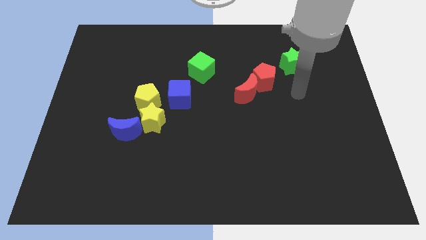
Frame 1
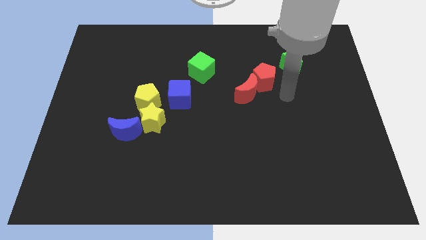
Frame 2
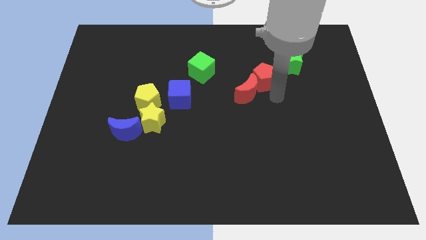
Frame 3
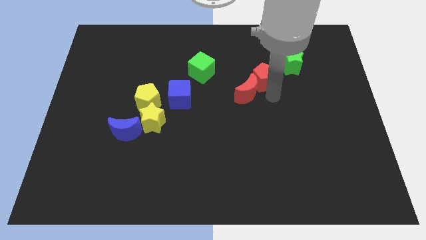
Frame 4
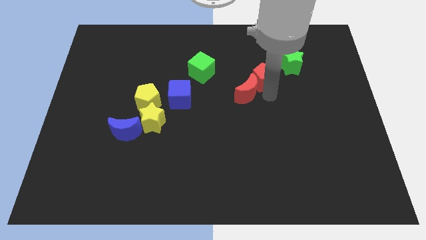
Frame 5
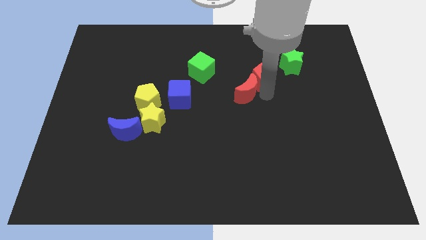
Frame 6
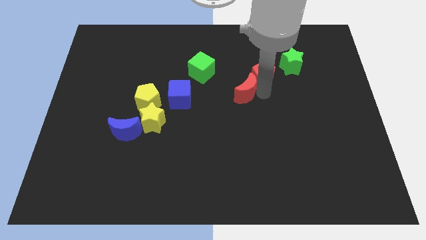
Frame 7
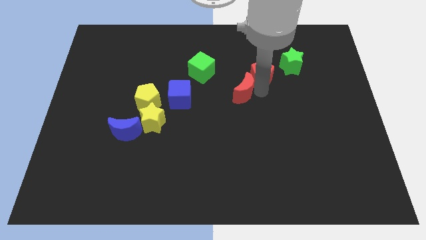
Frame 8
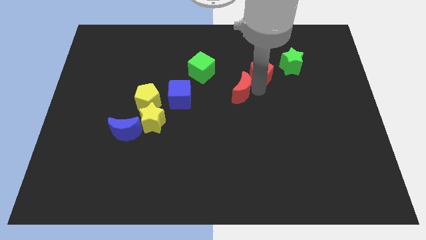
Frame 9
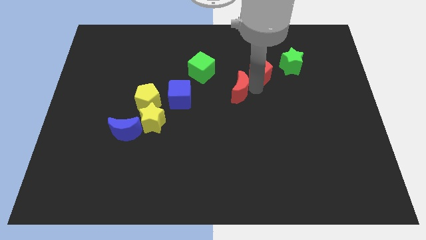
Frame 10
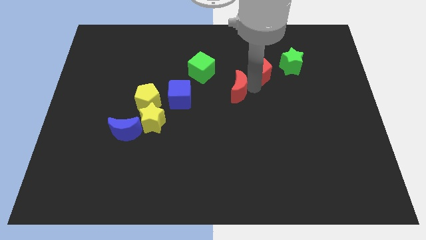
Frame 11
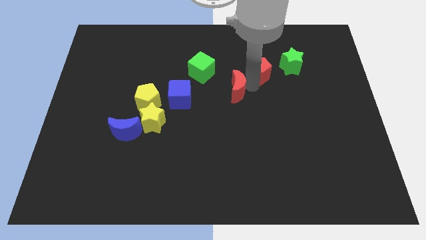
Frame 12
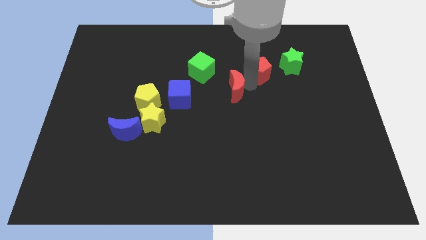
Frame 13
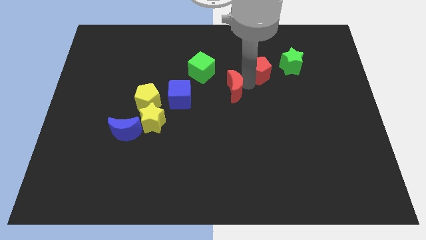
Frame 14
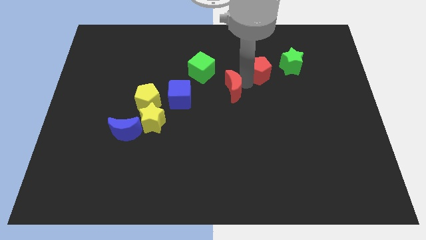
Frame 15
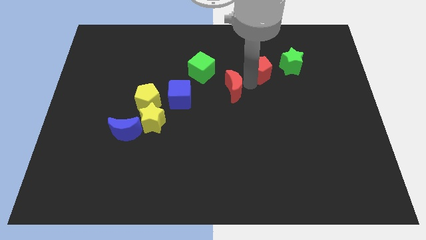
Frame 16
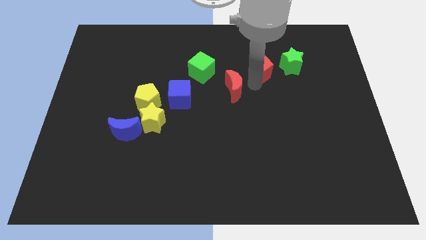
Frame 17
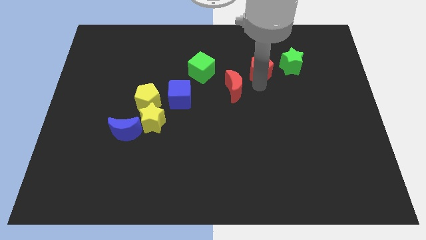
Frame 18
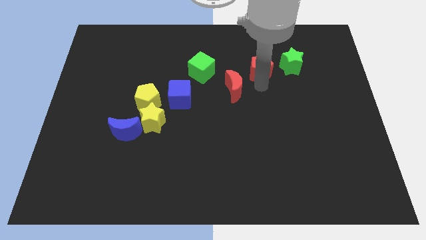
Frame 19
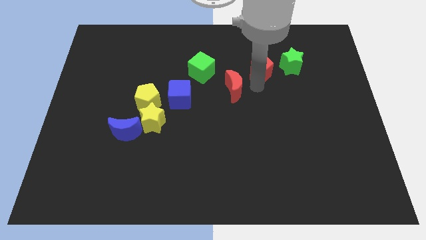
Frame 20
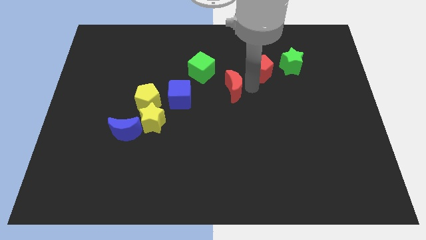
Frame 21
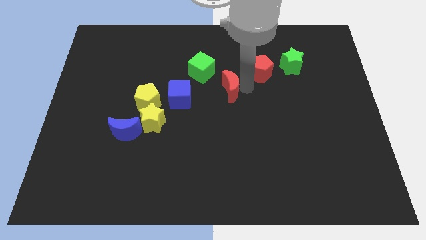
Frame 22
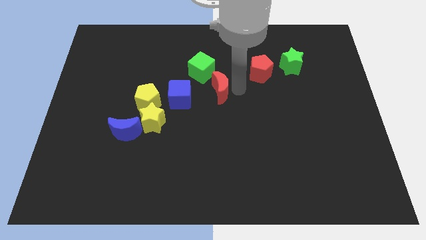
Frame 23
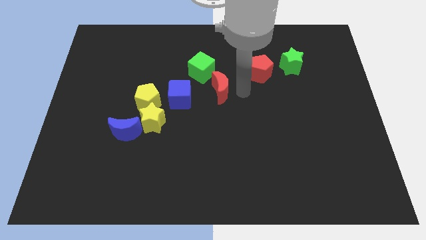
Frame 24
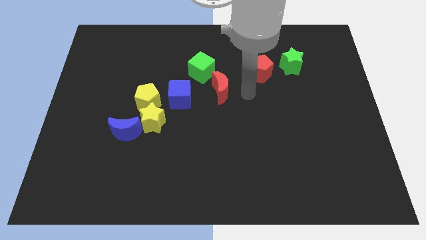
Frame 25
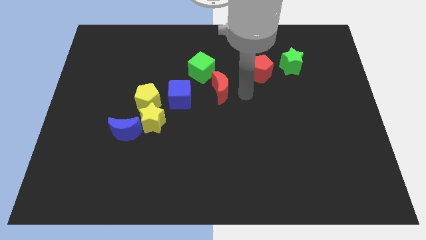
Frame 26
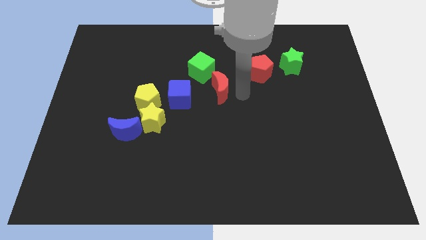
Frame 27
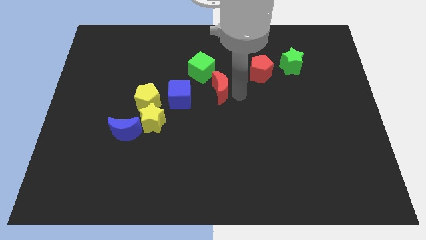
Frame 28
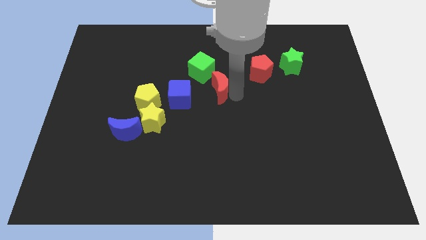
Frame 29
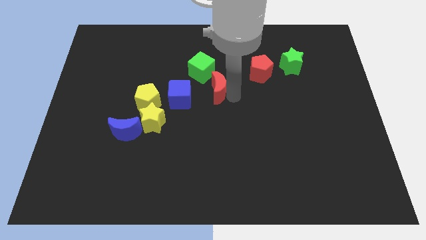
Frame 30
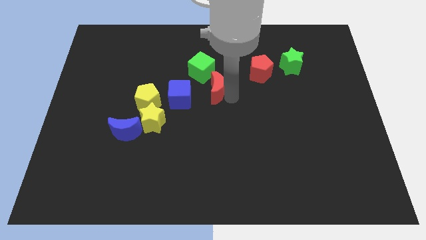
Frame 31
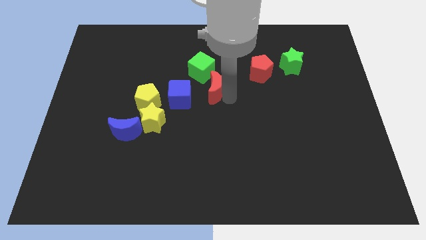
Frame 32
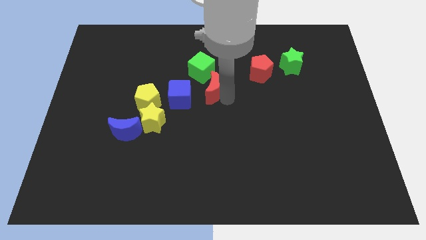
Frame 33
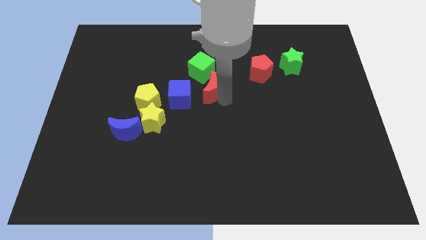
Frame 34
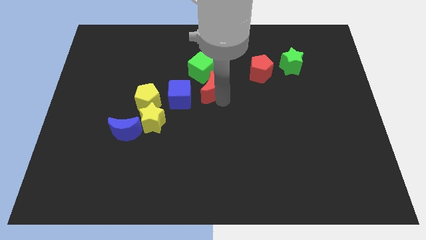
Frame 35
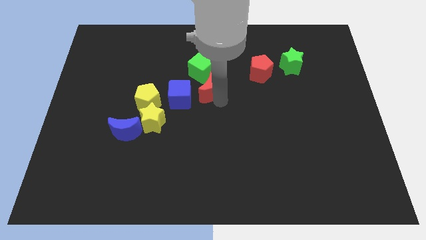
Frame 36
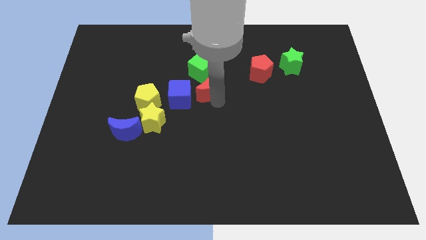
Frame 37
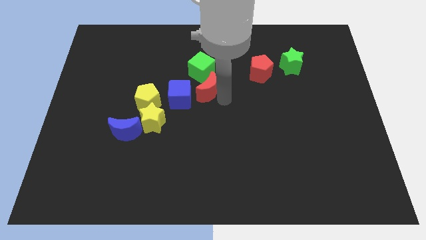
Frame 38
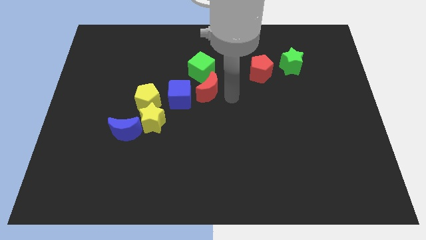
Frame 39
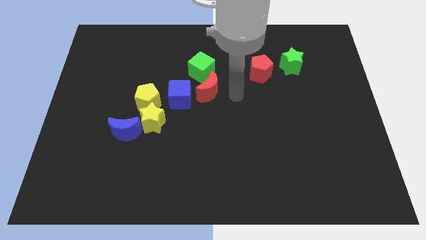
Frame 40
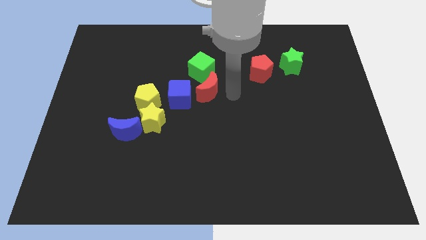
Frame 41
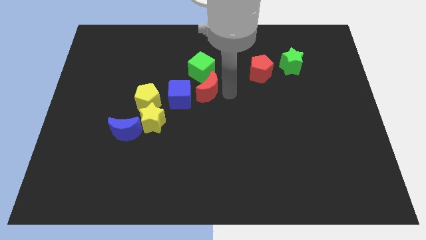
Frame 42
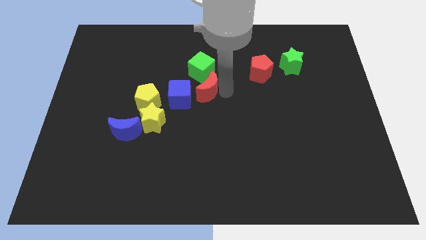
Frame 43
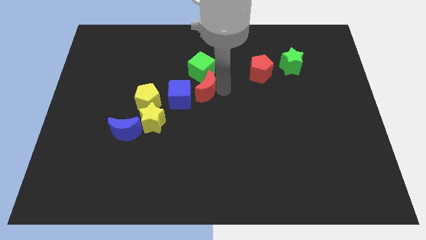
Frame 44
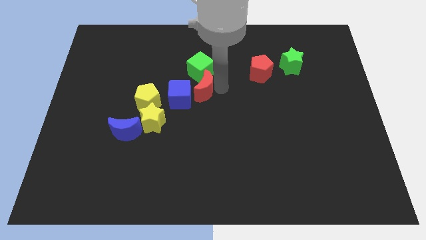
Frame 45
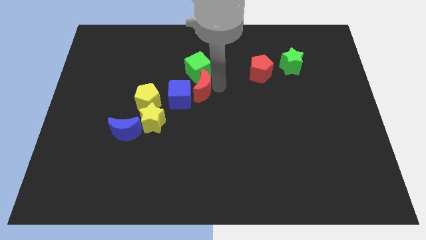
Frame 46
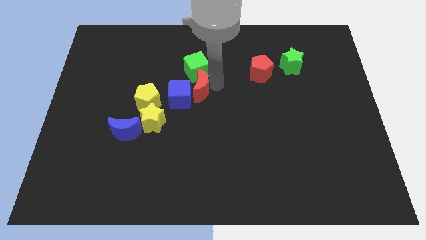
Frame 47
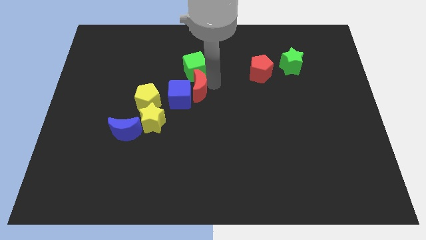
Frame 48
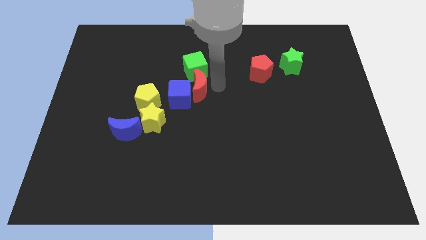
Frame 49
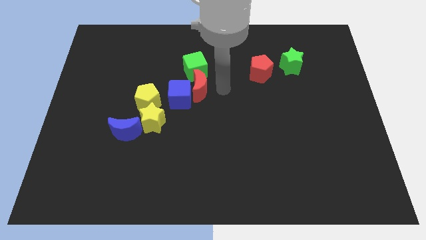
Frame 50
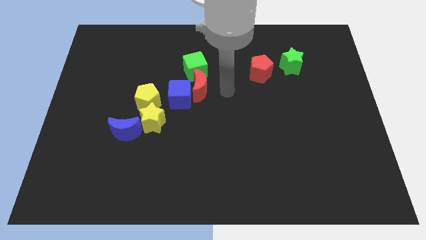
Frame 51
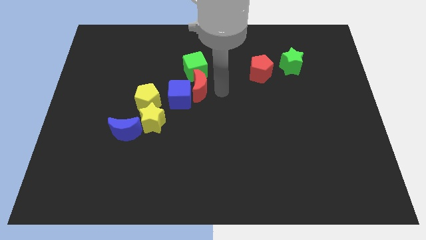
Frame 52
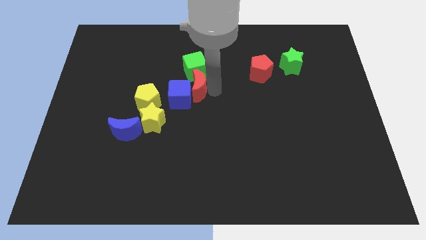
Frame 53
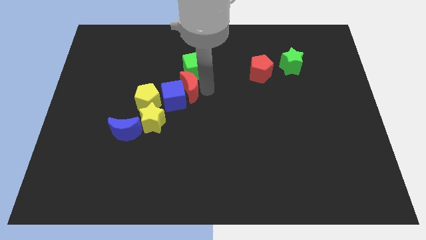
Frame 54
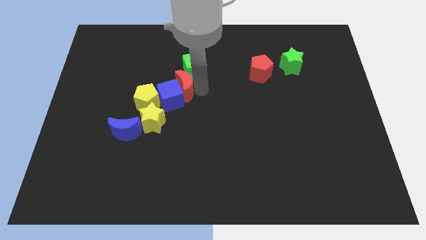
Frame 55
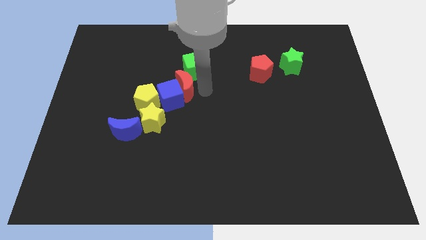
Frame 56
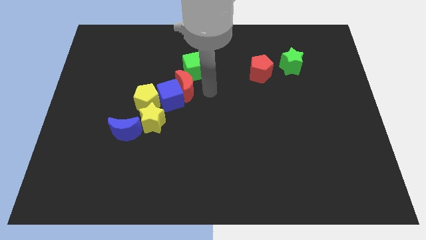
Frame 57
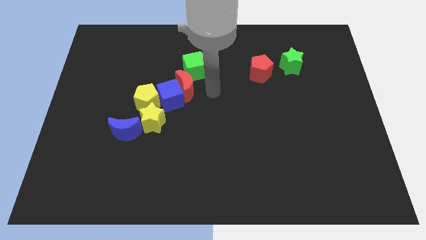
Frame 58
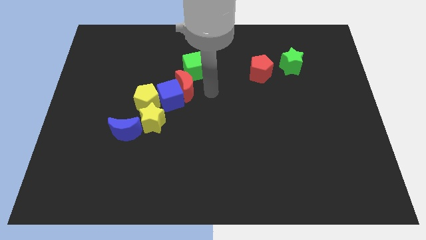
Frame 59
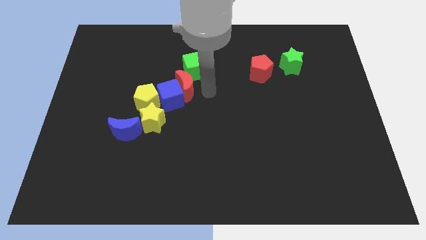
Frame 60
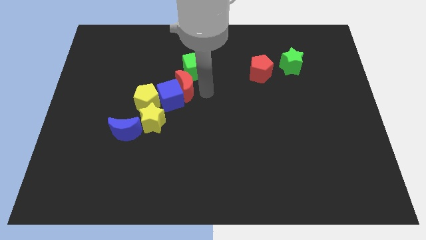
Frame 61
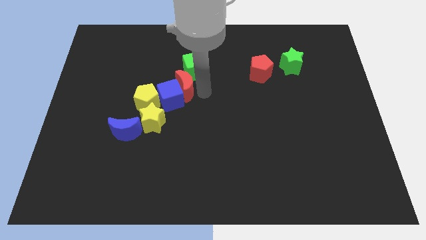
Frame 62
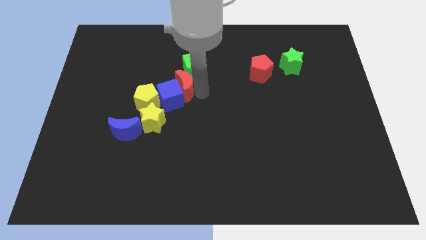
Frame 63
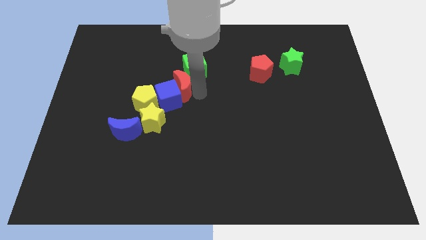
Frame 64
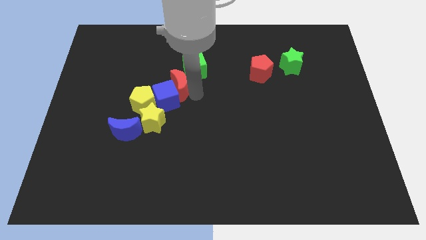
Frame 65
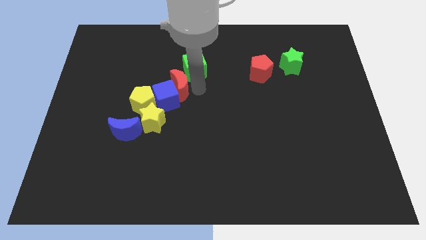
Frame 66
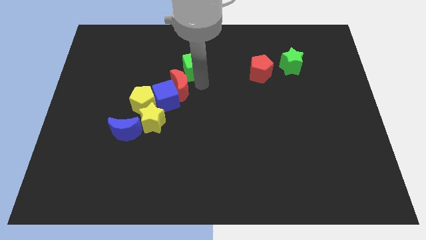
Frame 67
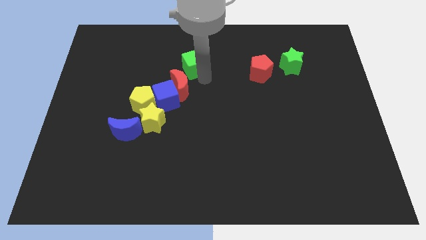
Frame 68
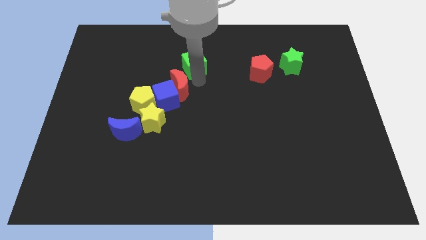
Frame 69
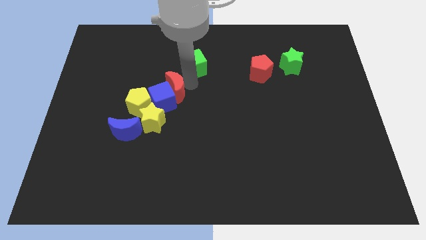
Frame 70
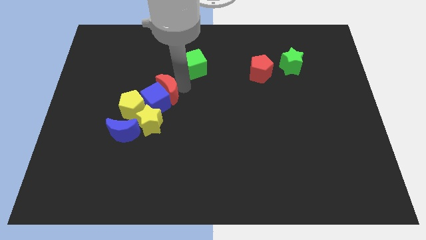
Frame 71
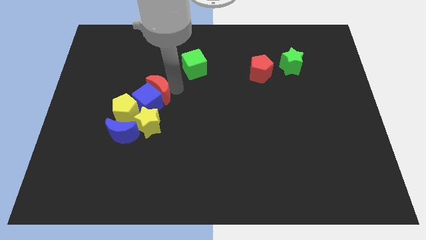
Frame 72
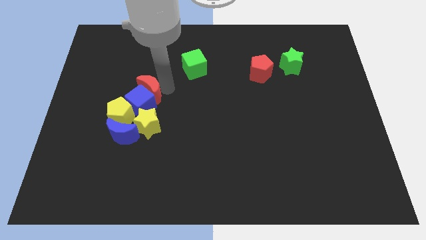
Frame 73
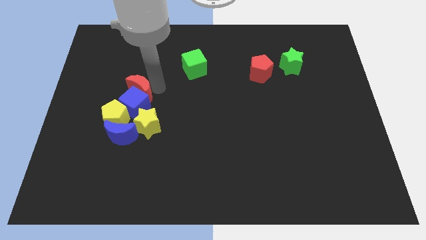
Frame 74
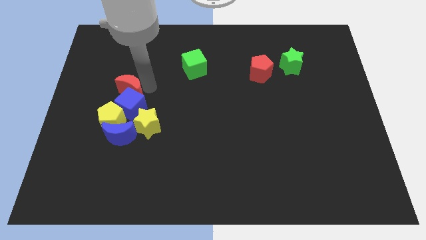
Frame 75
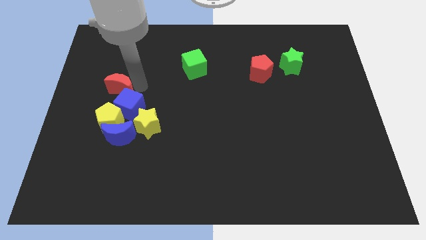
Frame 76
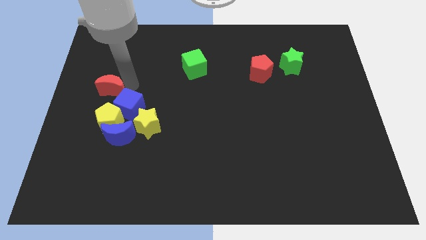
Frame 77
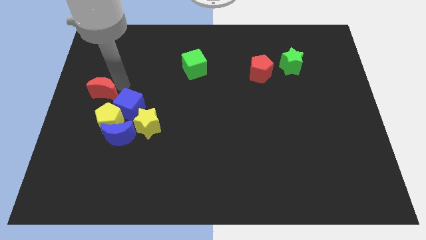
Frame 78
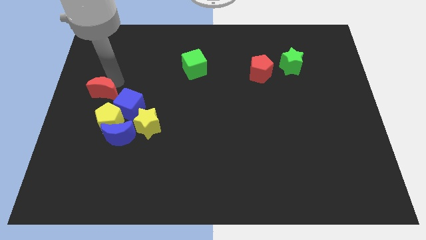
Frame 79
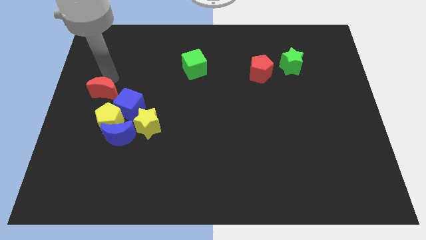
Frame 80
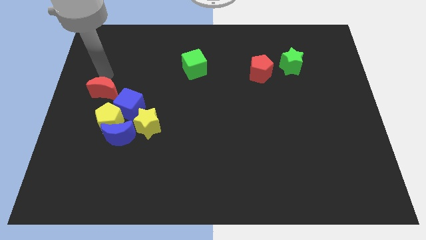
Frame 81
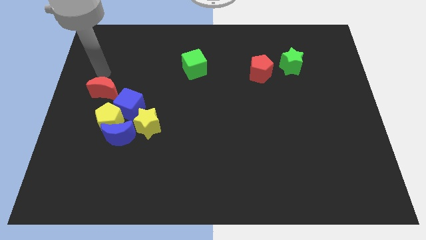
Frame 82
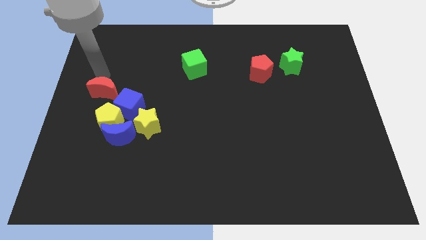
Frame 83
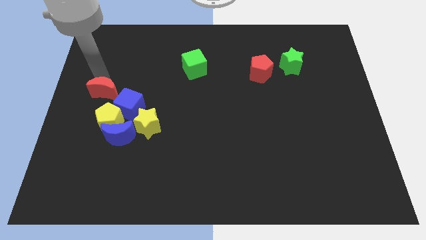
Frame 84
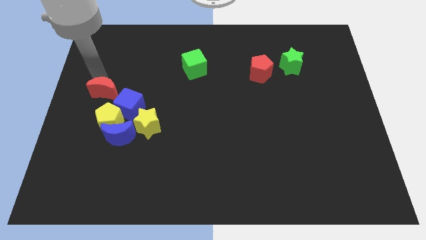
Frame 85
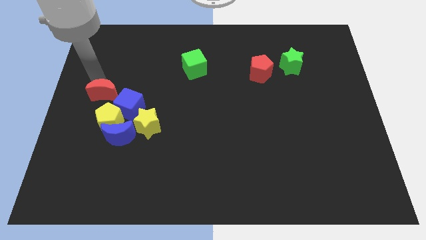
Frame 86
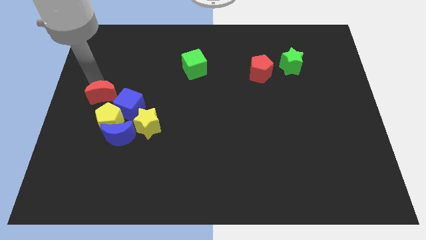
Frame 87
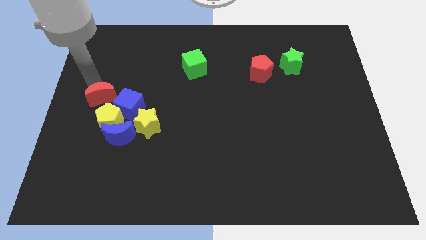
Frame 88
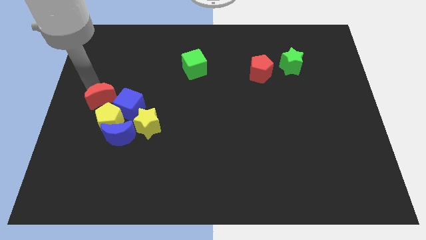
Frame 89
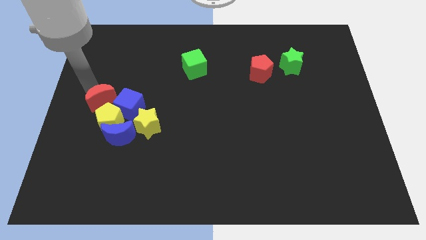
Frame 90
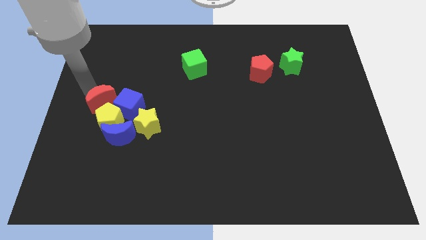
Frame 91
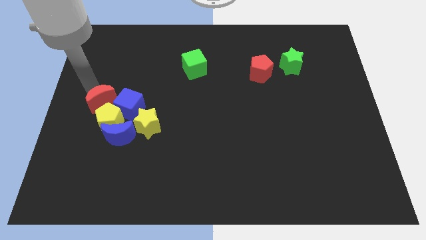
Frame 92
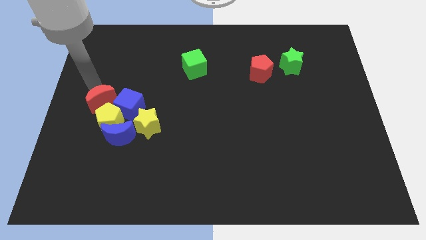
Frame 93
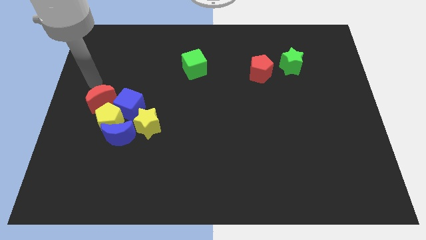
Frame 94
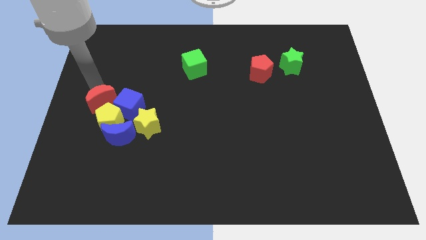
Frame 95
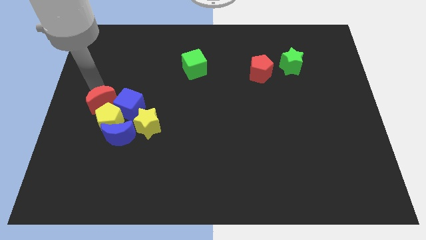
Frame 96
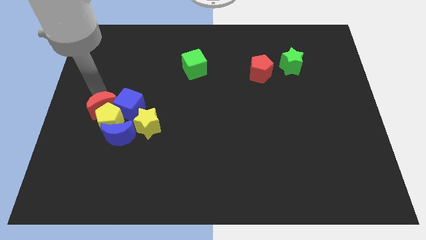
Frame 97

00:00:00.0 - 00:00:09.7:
slide the red moon next to the yellow pentagon
